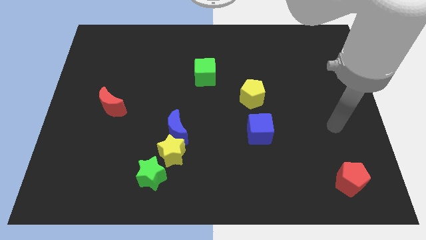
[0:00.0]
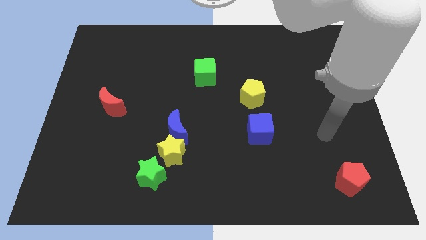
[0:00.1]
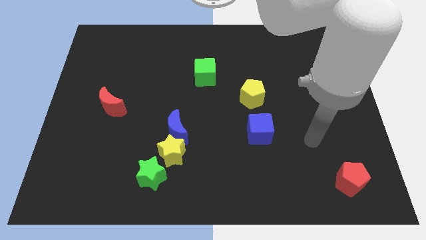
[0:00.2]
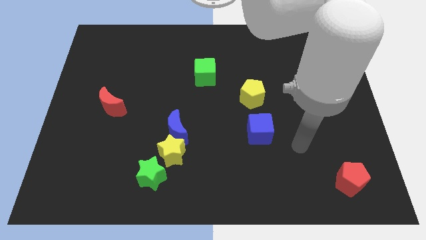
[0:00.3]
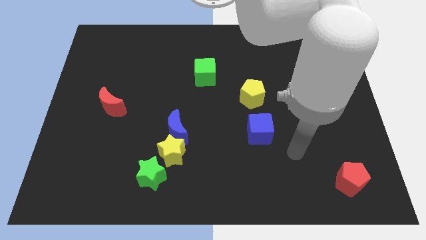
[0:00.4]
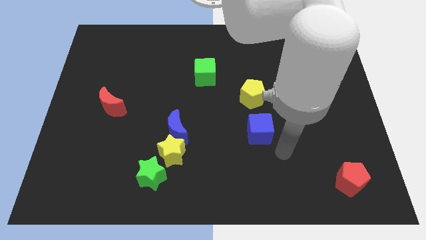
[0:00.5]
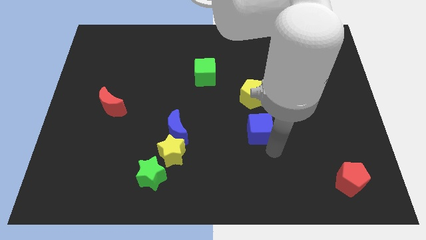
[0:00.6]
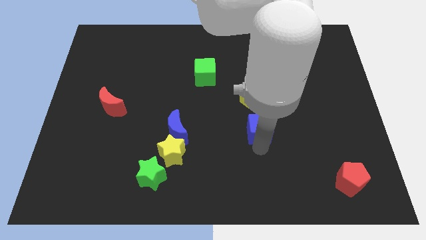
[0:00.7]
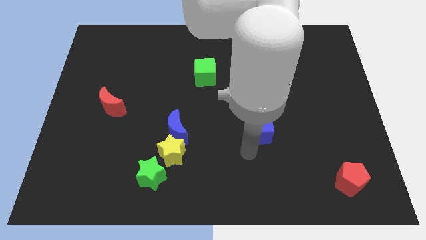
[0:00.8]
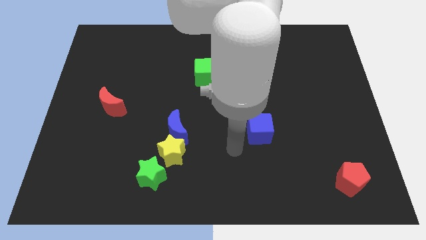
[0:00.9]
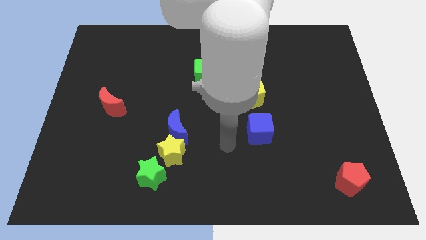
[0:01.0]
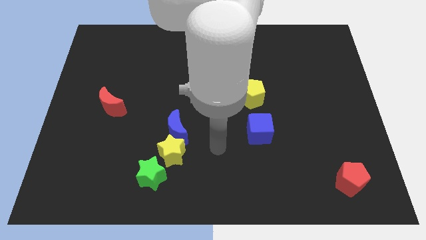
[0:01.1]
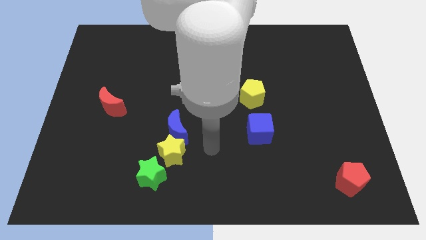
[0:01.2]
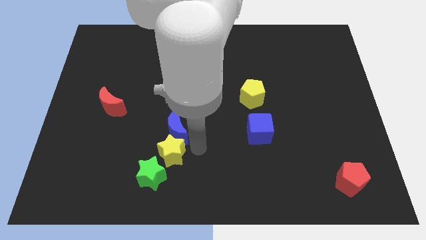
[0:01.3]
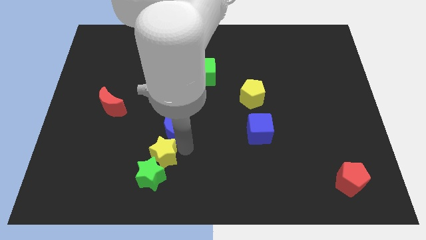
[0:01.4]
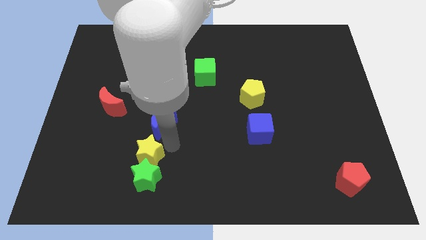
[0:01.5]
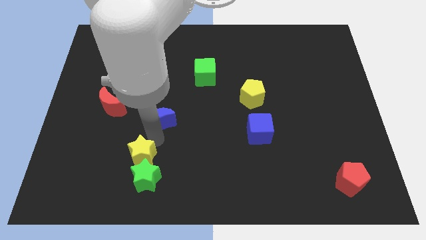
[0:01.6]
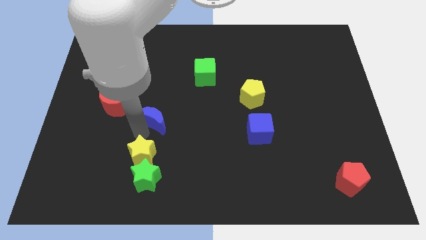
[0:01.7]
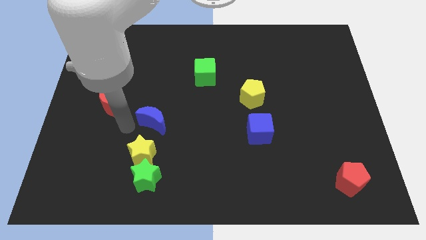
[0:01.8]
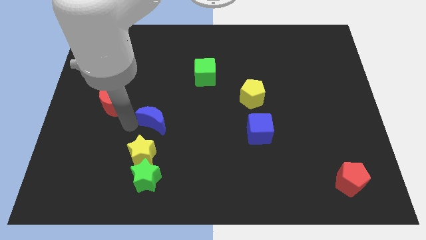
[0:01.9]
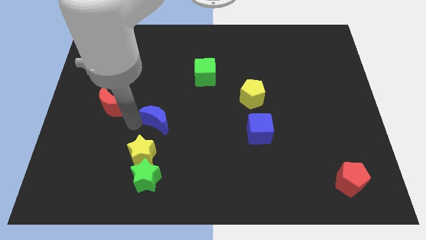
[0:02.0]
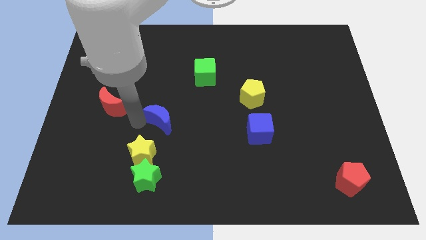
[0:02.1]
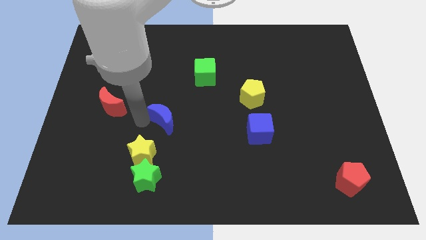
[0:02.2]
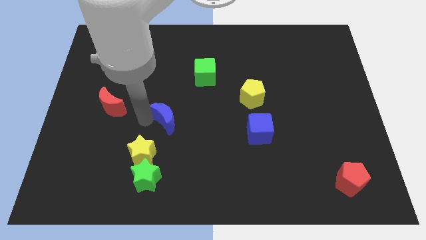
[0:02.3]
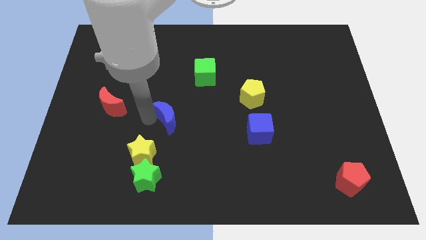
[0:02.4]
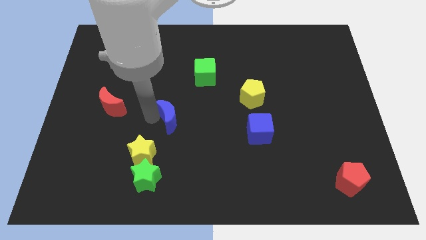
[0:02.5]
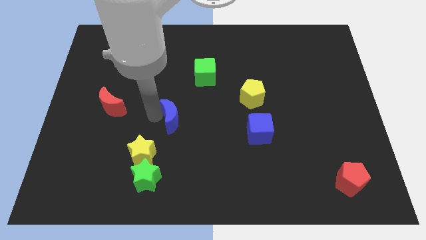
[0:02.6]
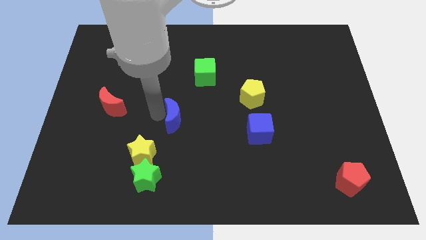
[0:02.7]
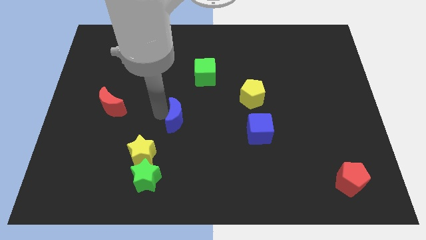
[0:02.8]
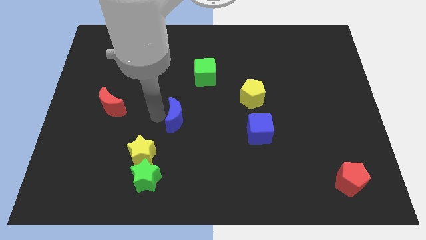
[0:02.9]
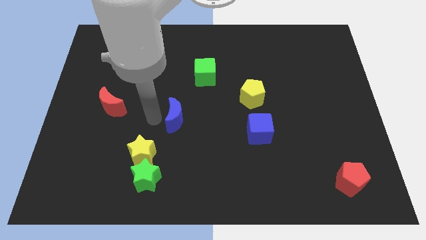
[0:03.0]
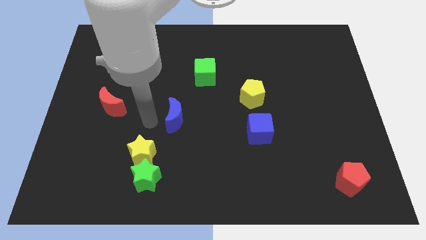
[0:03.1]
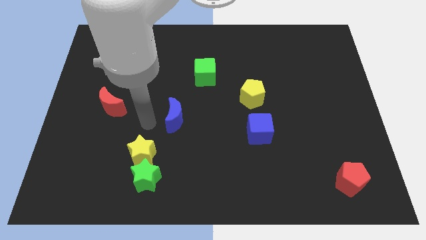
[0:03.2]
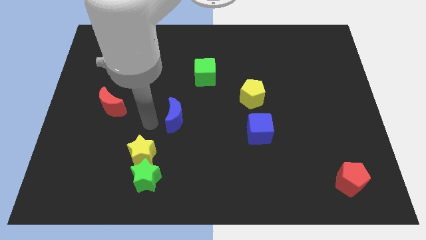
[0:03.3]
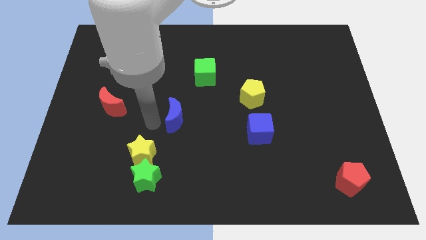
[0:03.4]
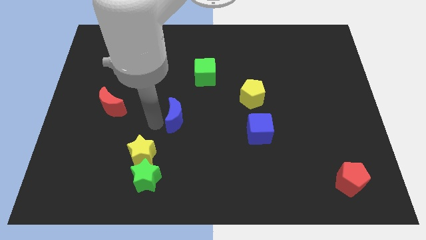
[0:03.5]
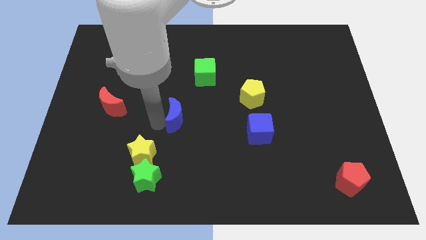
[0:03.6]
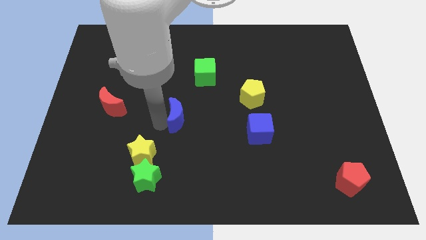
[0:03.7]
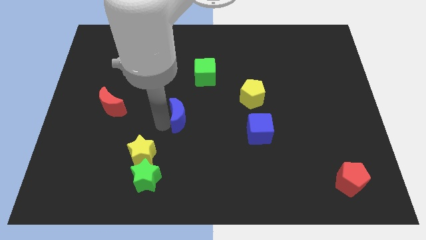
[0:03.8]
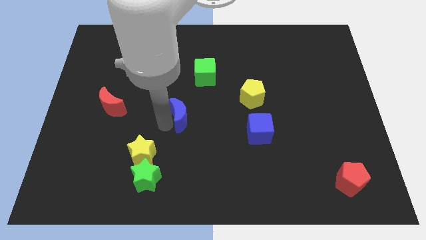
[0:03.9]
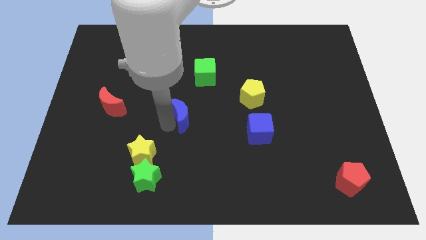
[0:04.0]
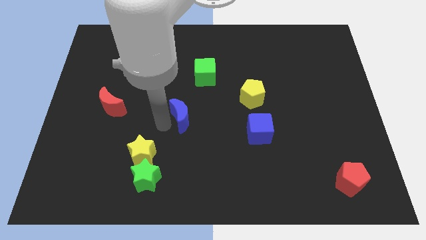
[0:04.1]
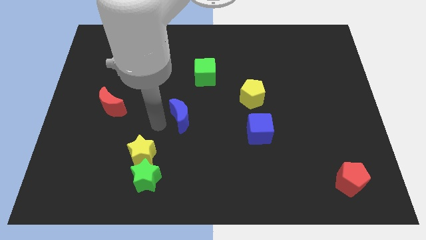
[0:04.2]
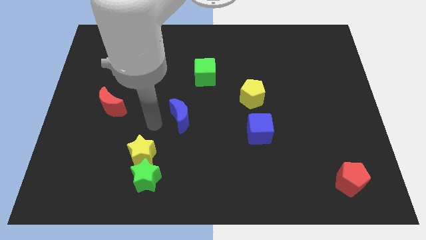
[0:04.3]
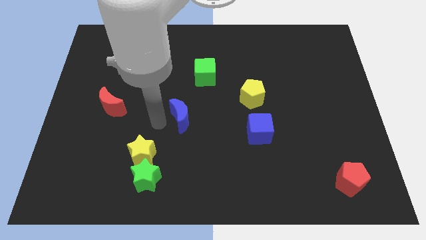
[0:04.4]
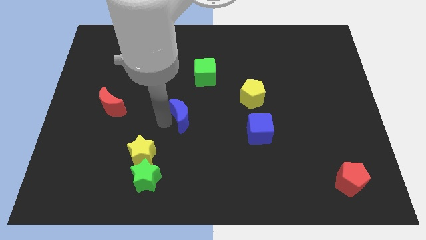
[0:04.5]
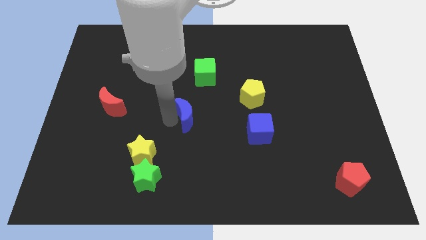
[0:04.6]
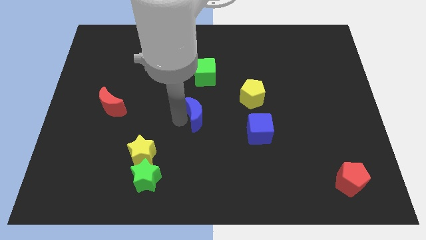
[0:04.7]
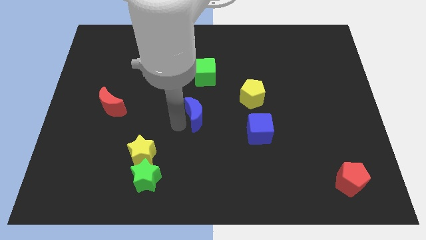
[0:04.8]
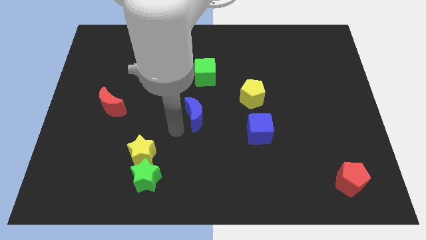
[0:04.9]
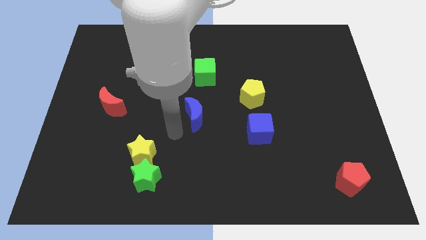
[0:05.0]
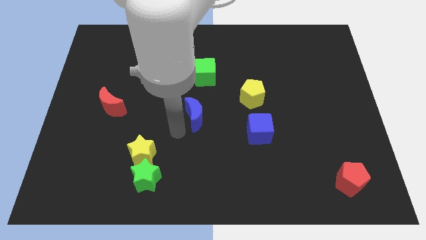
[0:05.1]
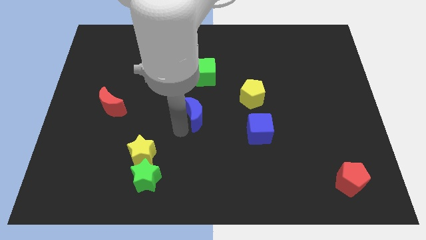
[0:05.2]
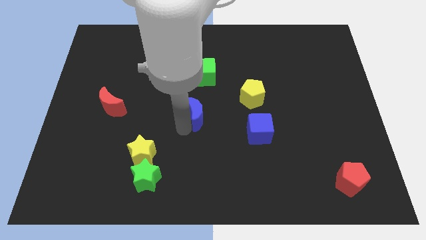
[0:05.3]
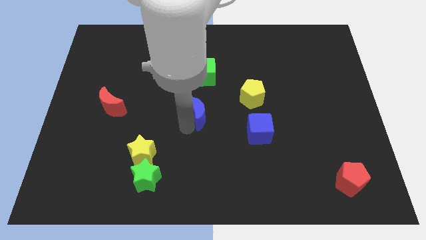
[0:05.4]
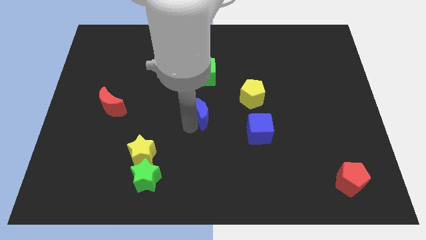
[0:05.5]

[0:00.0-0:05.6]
move the blue moon up and then right slightly

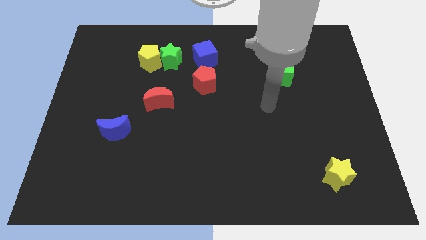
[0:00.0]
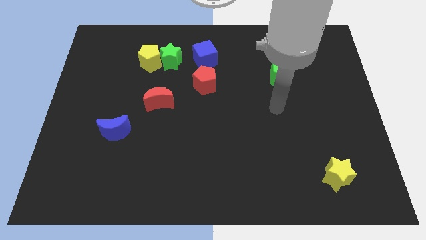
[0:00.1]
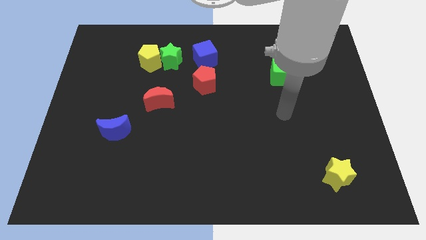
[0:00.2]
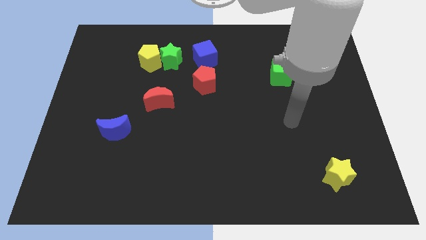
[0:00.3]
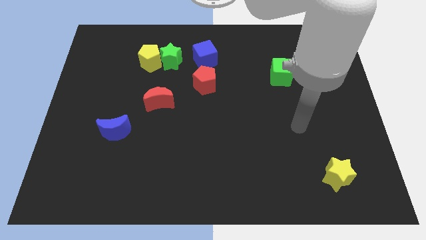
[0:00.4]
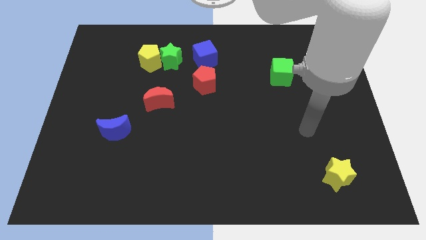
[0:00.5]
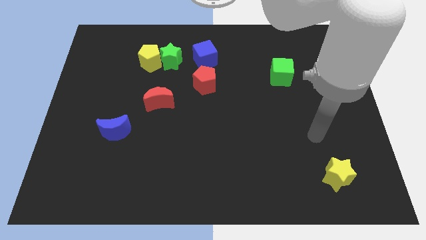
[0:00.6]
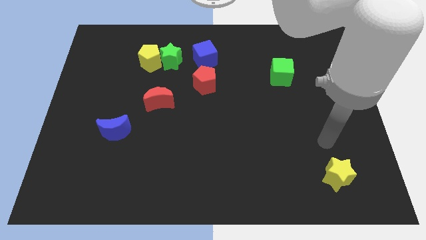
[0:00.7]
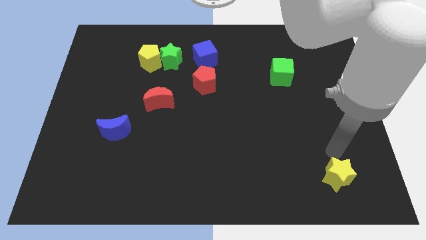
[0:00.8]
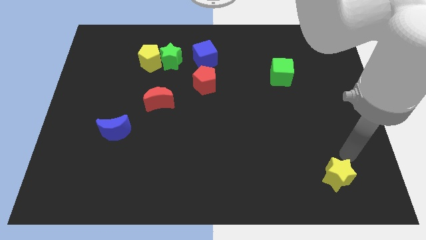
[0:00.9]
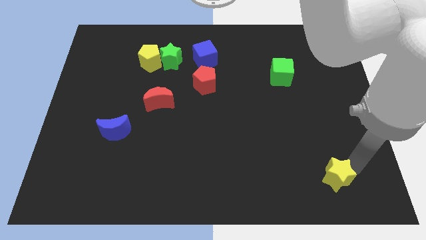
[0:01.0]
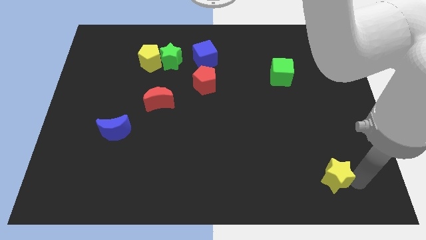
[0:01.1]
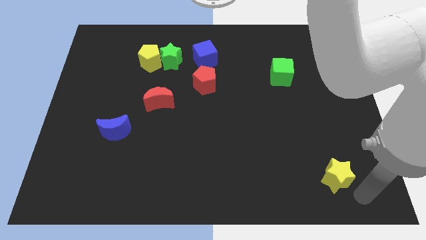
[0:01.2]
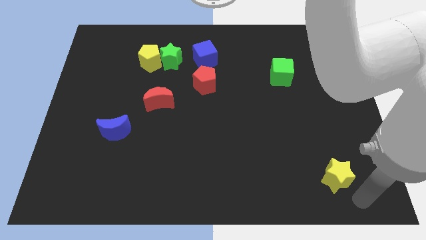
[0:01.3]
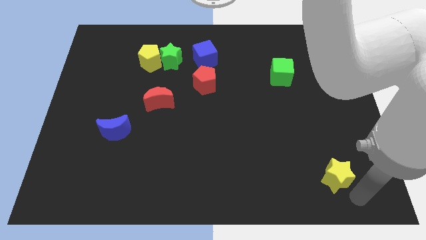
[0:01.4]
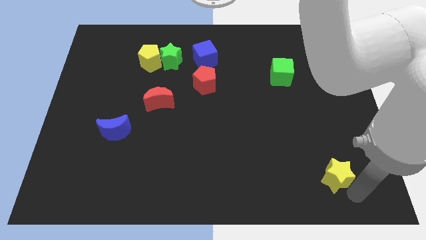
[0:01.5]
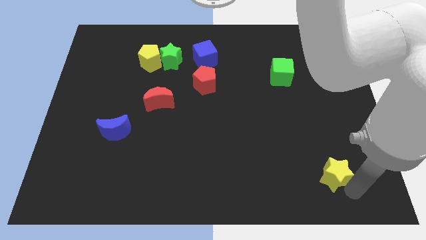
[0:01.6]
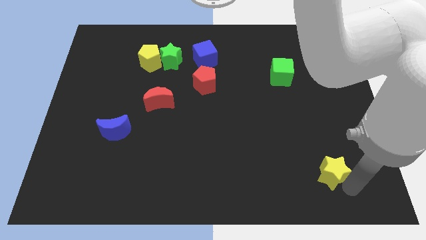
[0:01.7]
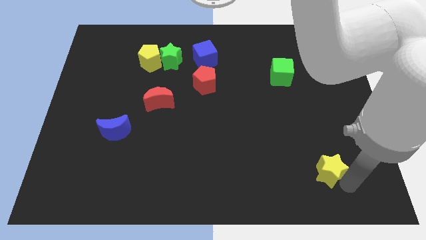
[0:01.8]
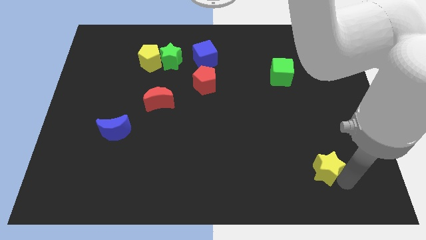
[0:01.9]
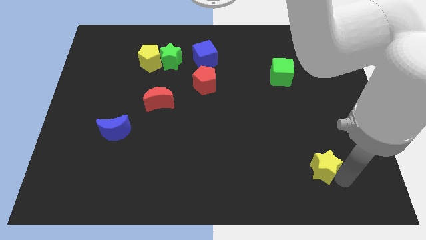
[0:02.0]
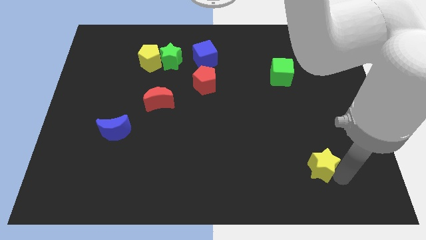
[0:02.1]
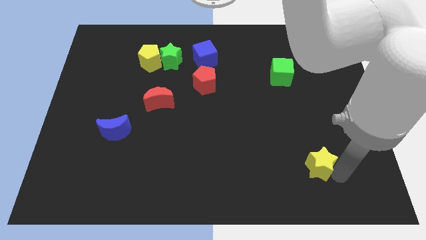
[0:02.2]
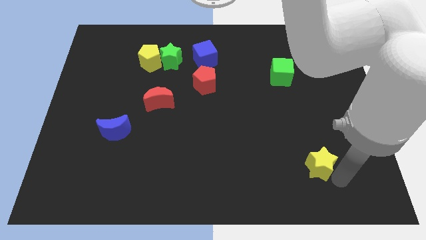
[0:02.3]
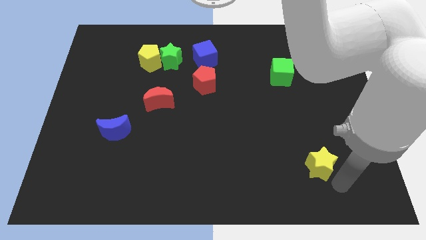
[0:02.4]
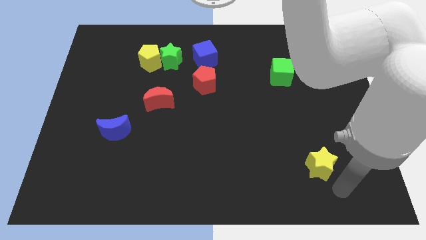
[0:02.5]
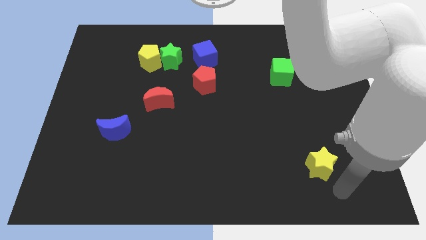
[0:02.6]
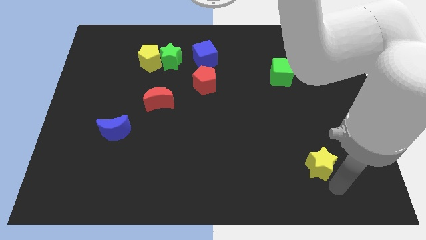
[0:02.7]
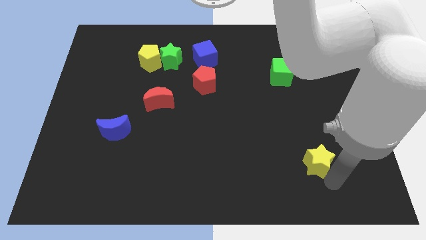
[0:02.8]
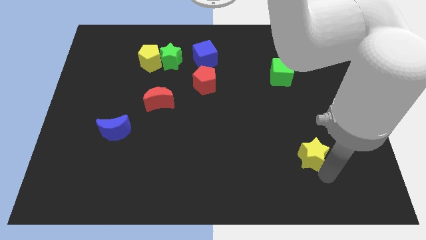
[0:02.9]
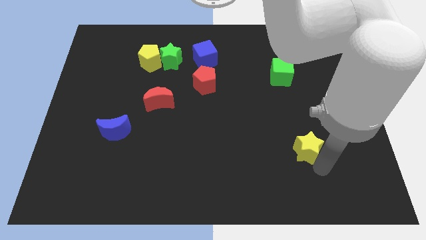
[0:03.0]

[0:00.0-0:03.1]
push the yellow star upwards and to the left diagonally a bit
